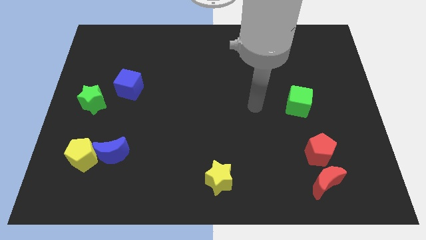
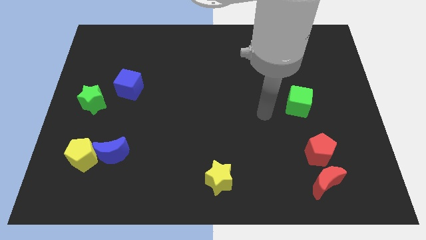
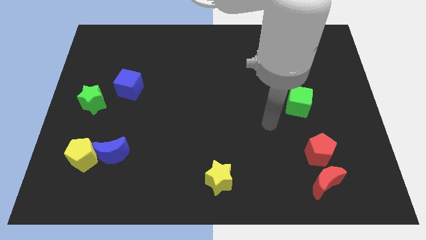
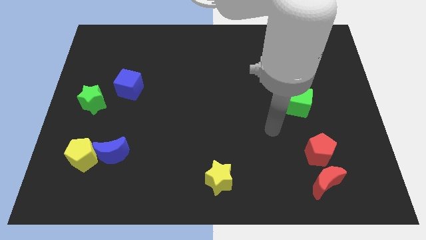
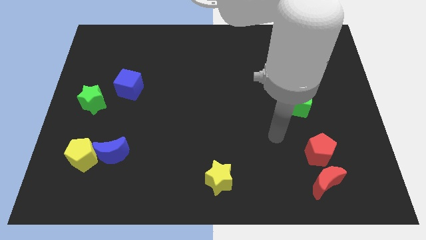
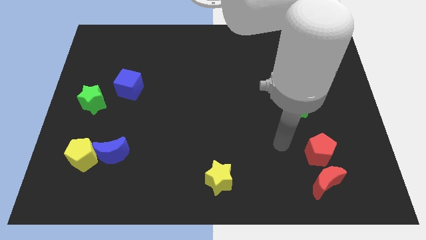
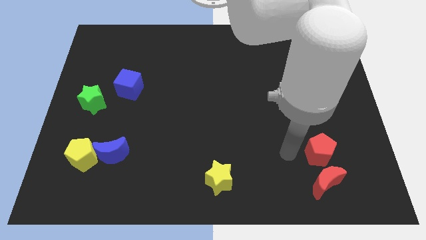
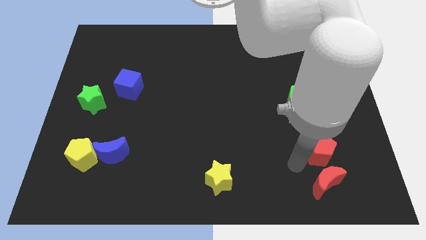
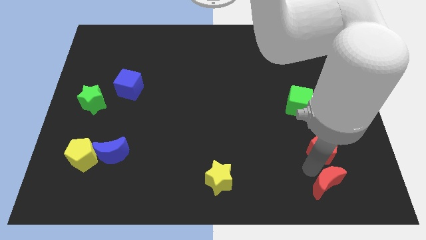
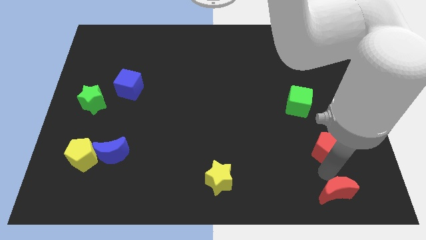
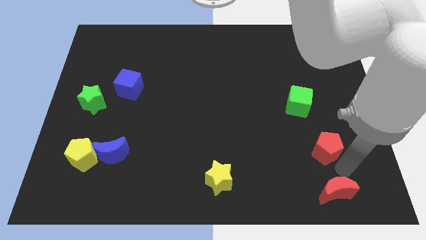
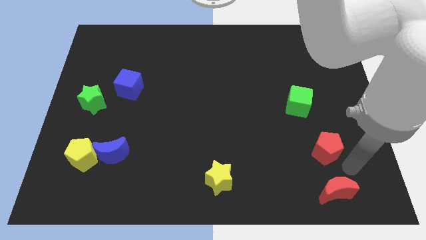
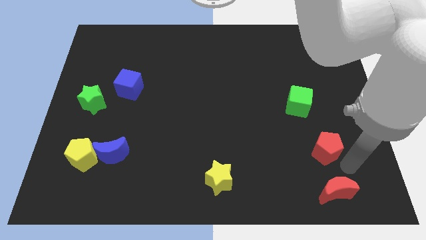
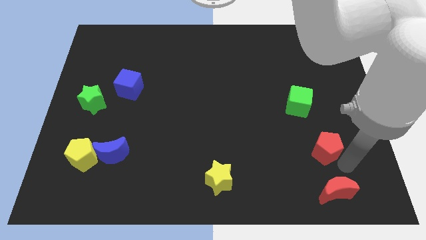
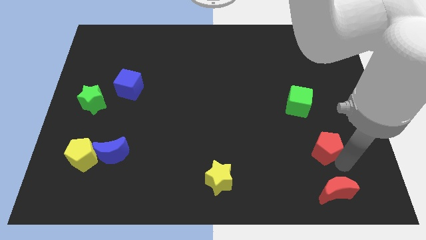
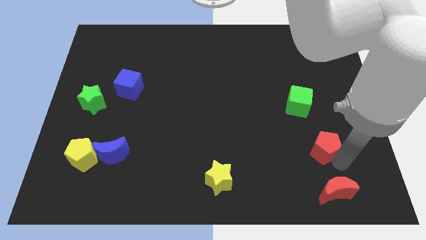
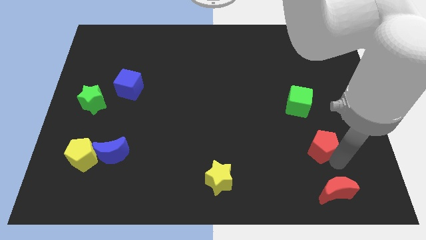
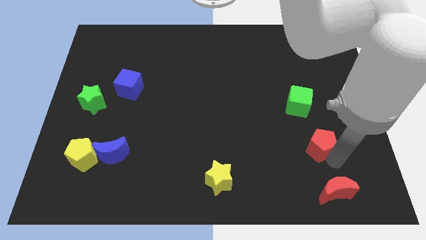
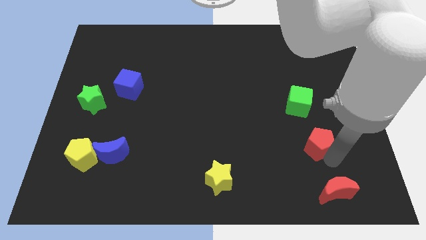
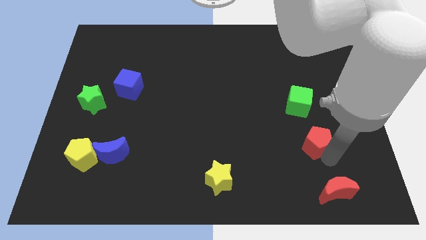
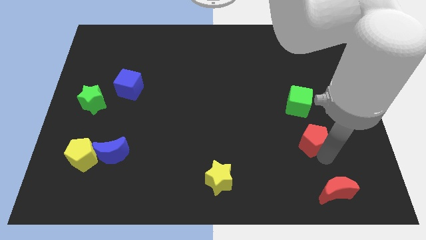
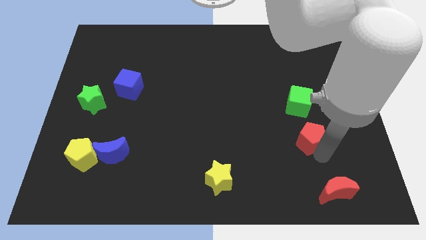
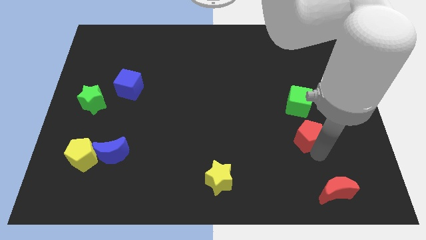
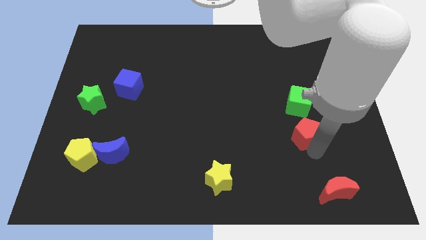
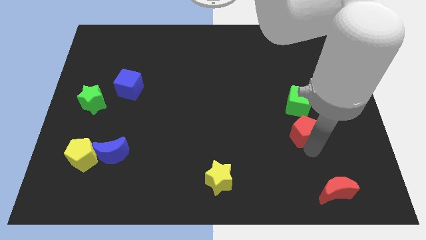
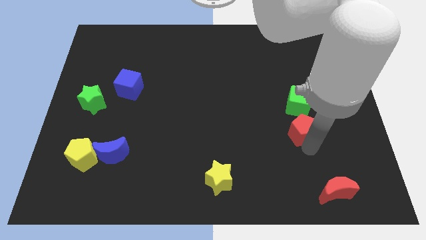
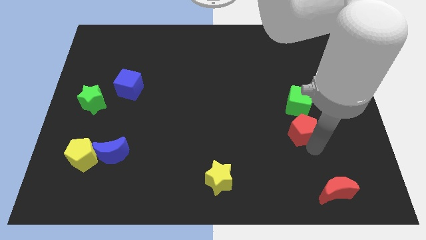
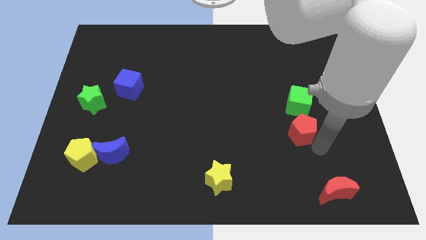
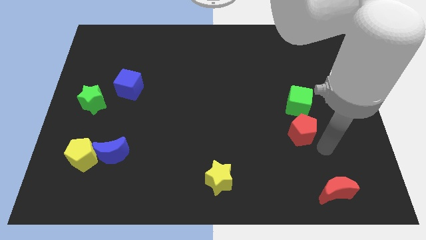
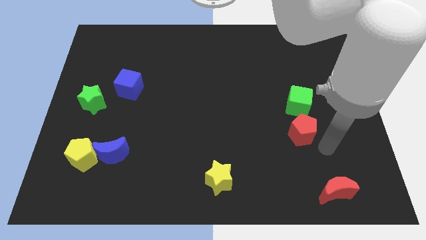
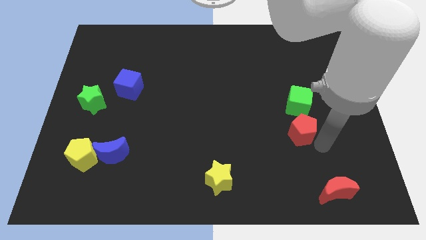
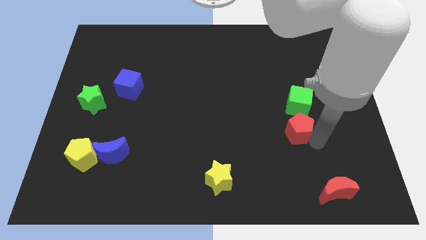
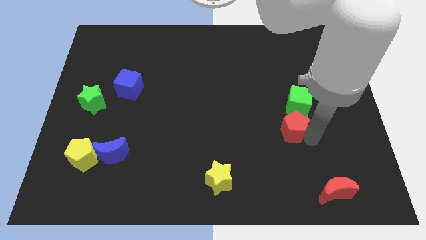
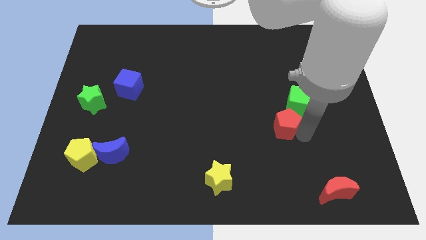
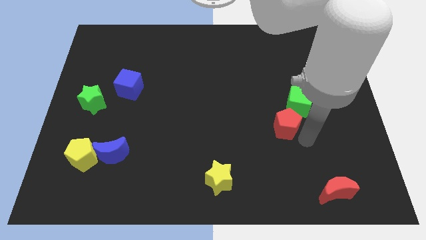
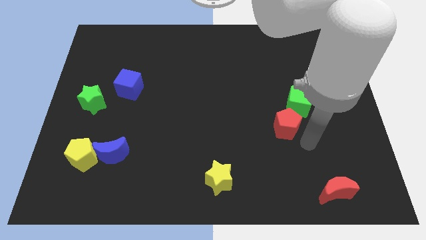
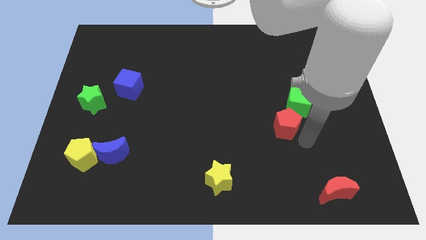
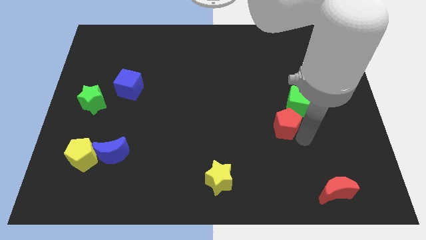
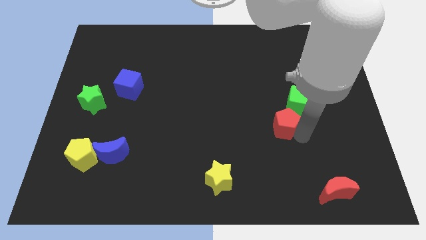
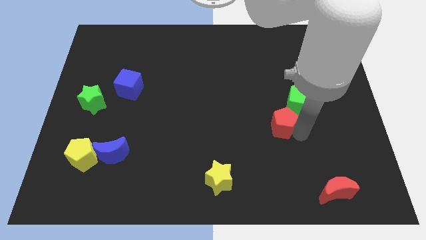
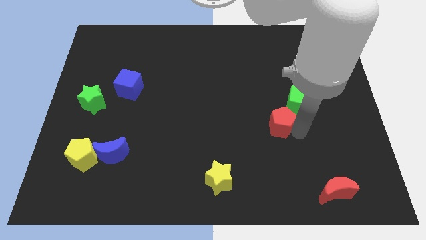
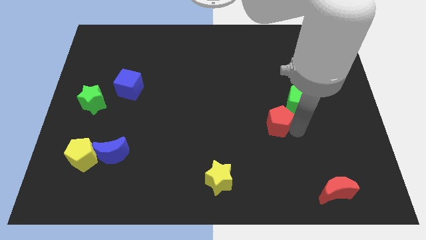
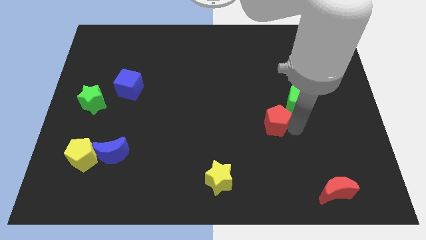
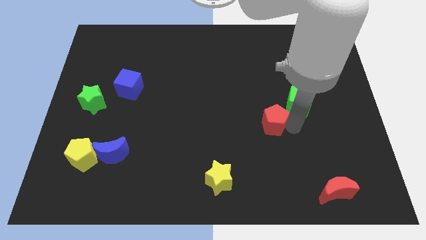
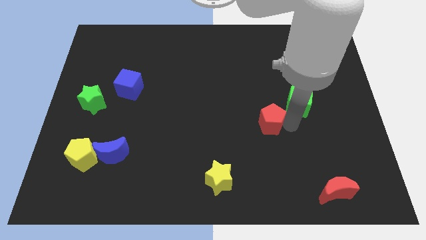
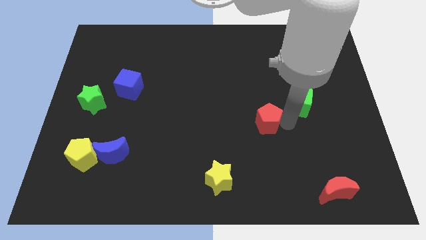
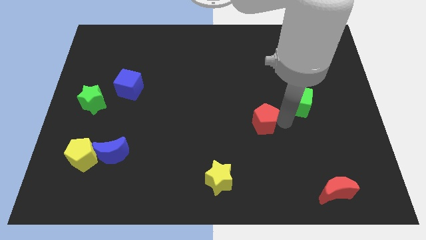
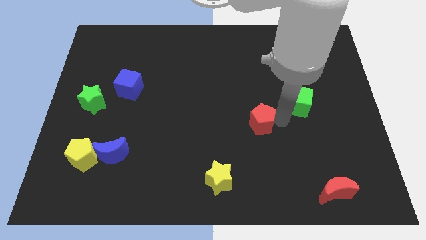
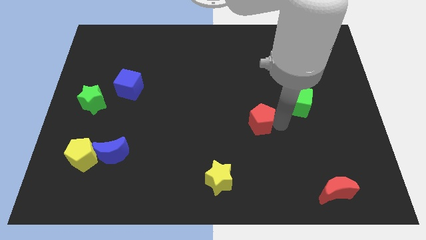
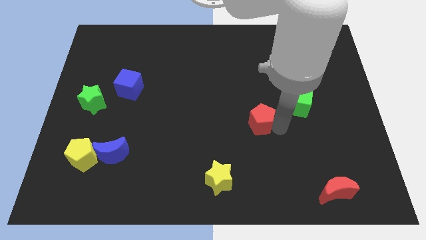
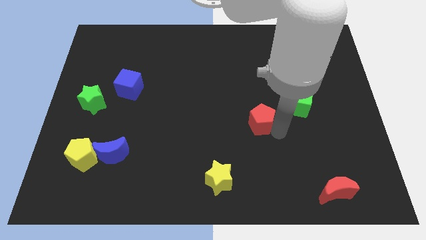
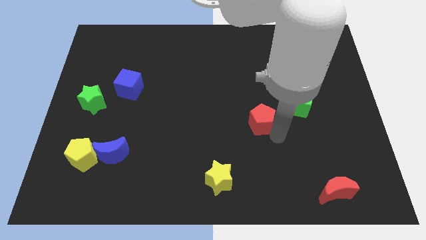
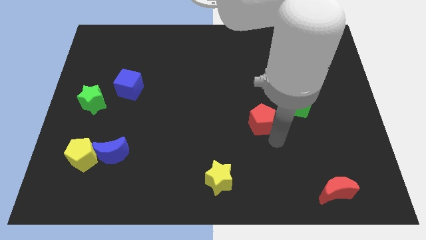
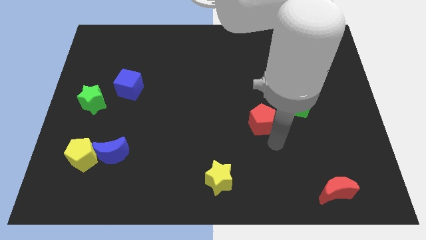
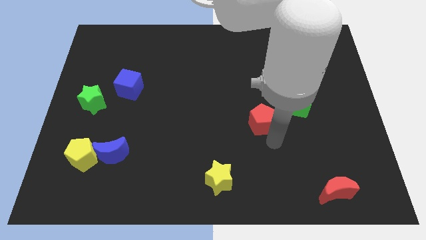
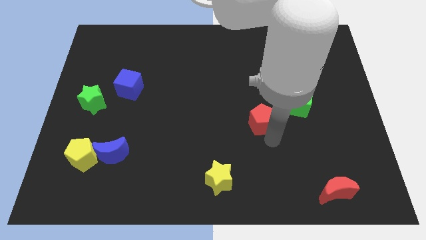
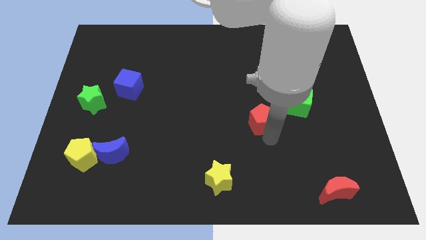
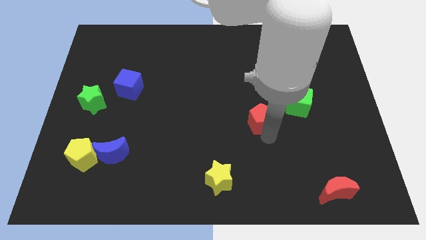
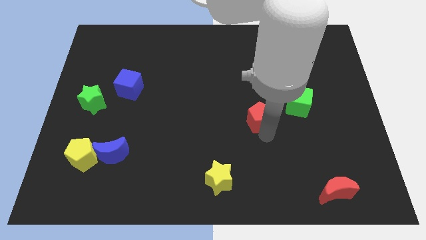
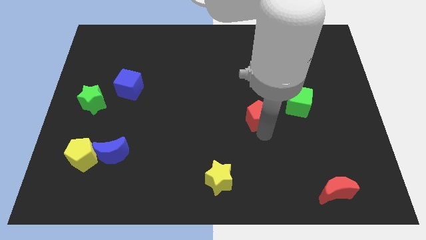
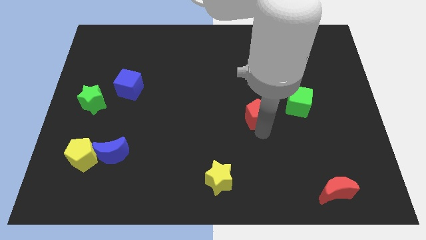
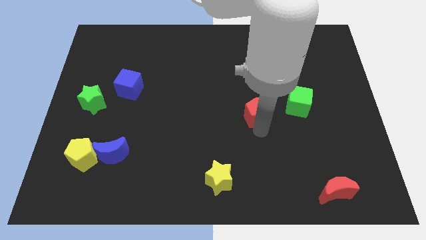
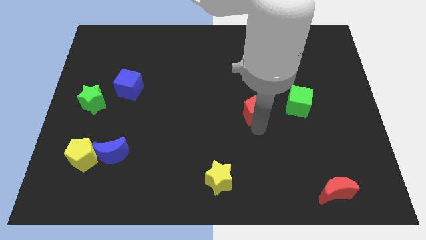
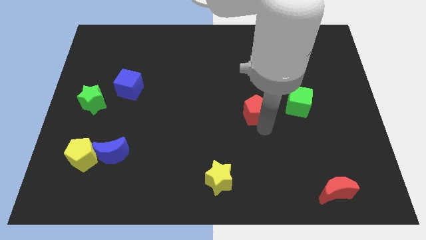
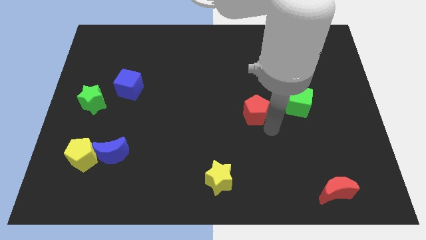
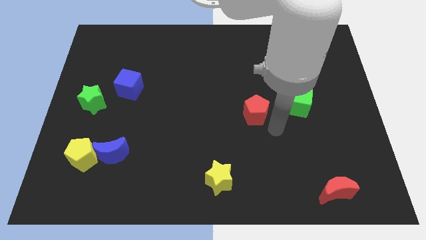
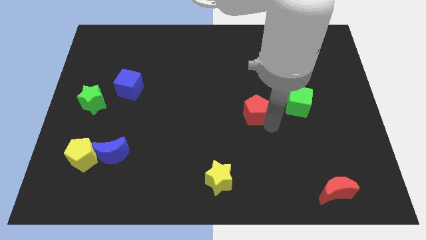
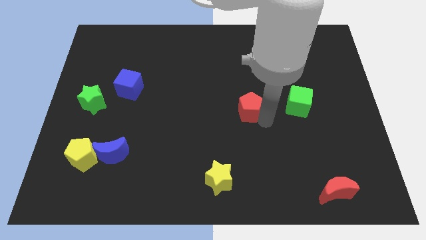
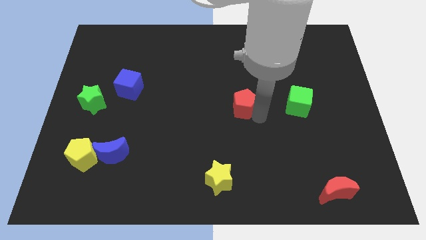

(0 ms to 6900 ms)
move the red pentagon up and to the left diagonally

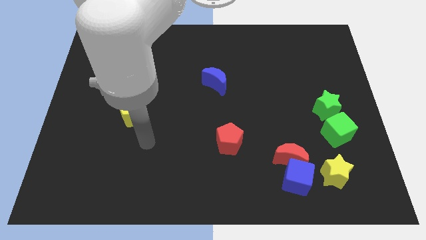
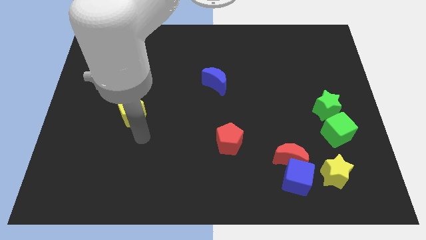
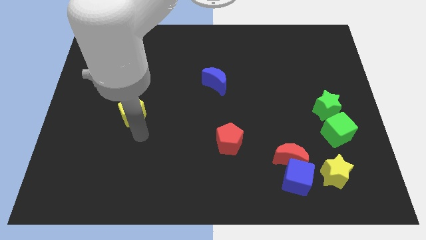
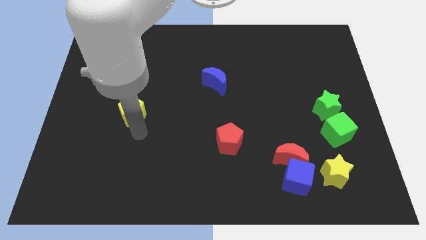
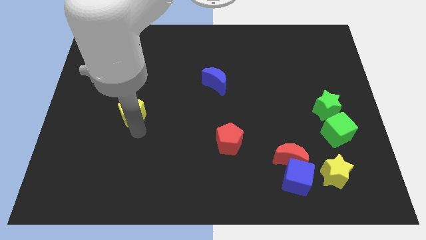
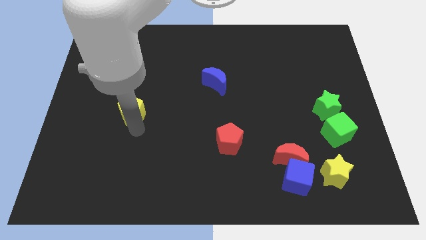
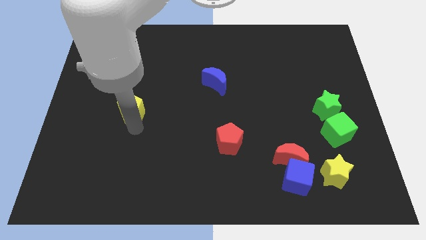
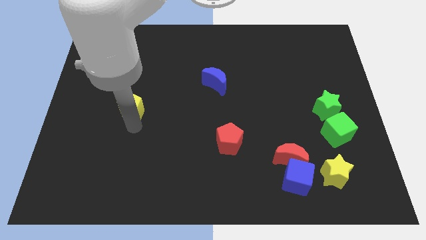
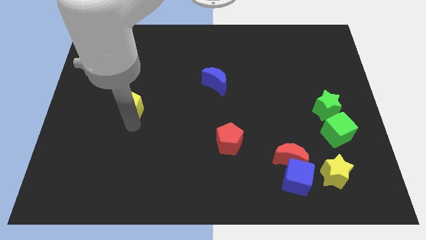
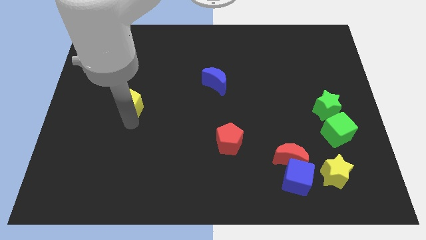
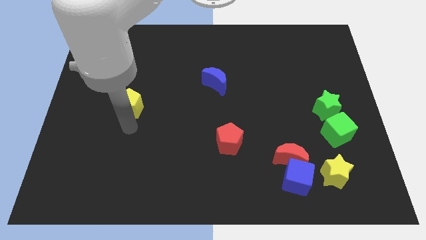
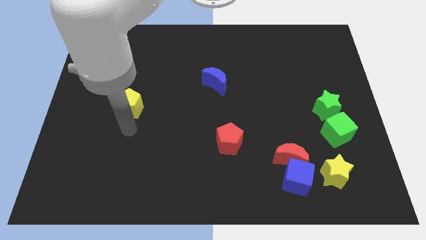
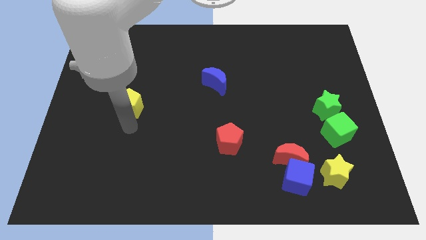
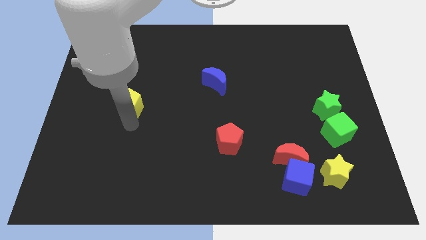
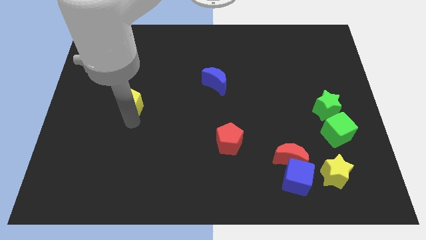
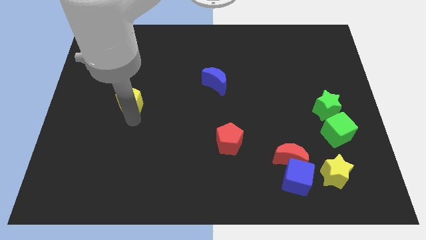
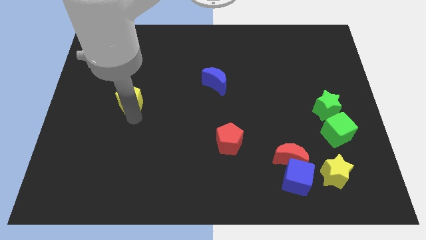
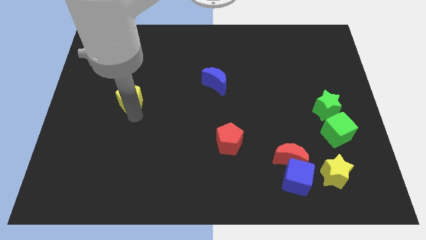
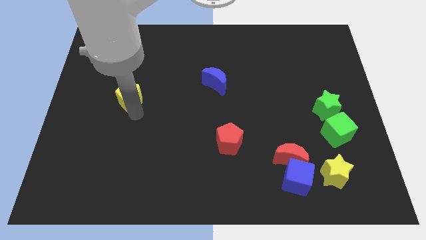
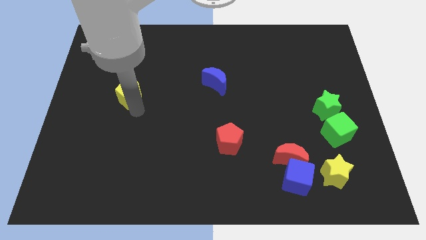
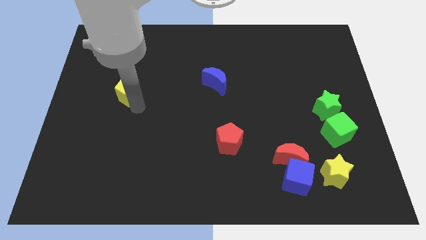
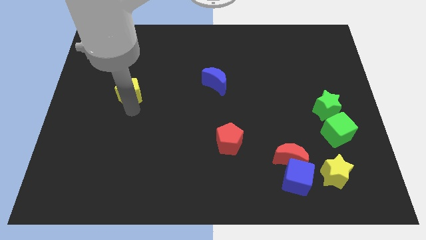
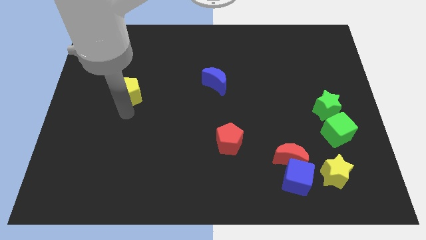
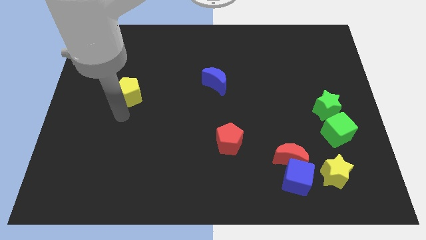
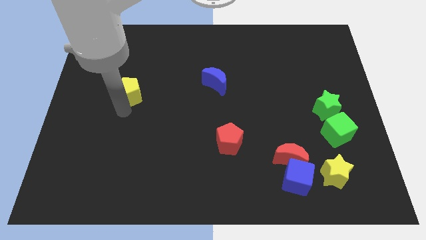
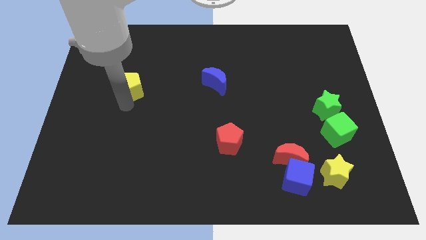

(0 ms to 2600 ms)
move the yellow pentagon a bit up
